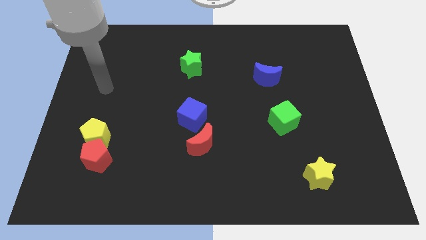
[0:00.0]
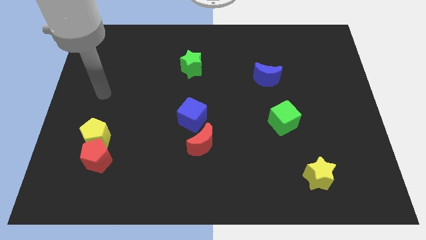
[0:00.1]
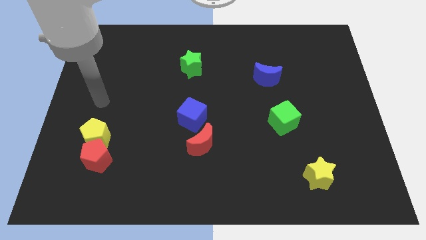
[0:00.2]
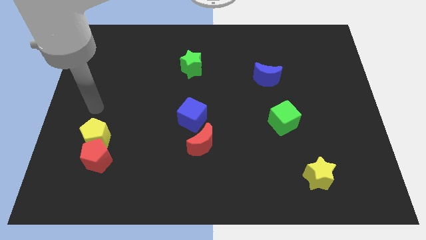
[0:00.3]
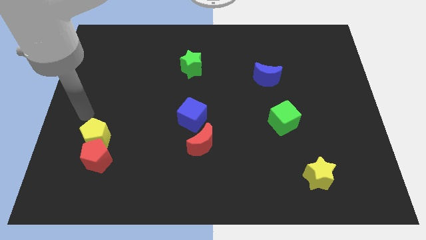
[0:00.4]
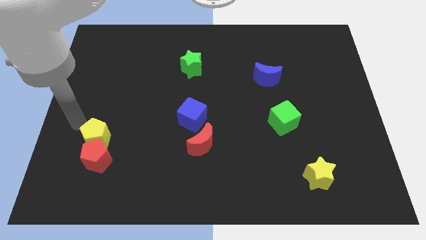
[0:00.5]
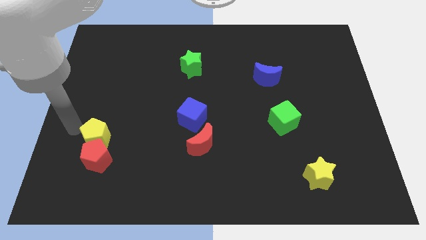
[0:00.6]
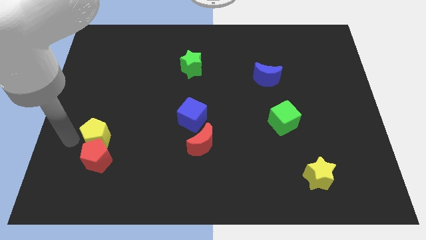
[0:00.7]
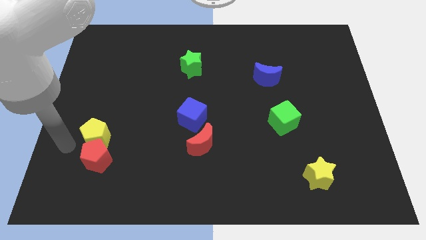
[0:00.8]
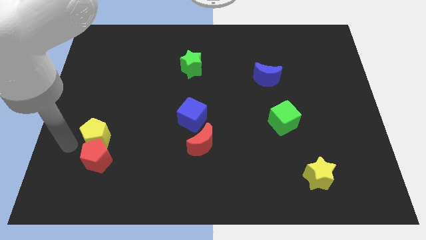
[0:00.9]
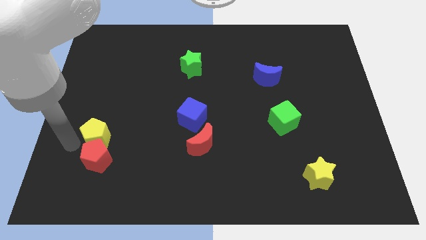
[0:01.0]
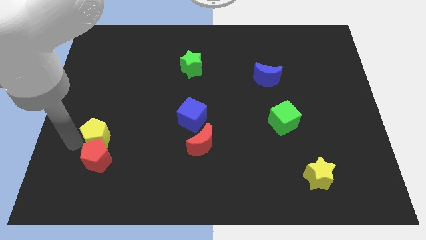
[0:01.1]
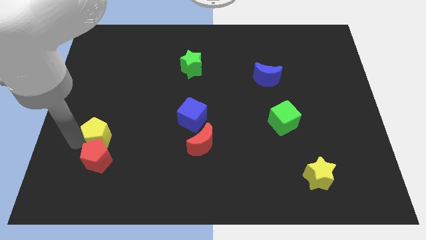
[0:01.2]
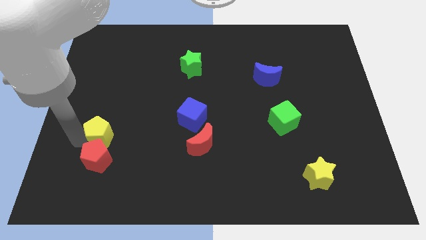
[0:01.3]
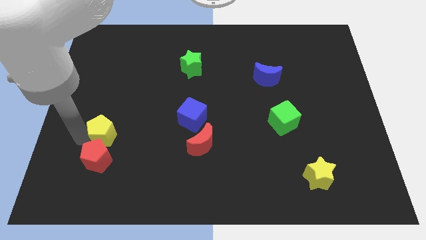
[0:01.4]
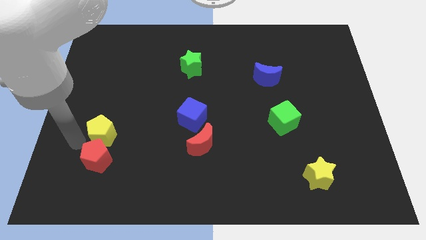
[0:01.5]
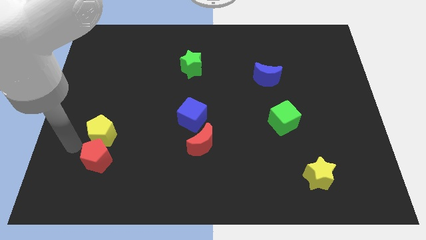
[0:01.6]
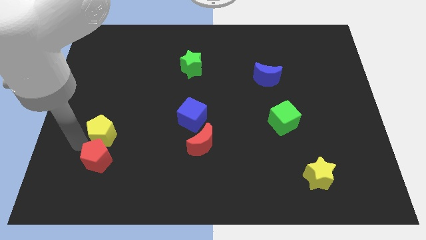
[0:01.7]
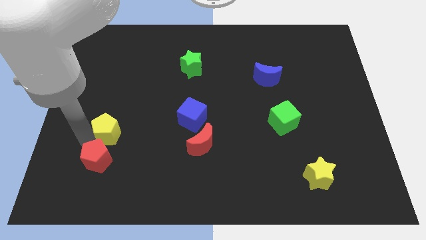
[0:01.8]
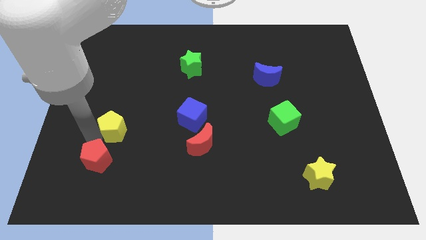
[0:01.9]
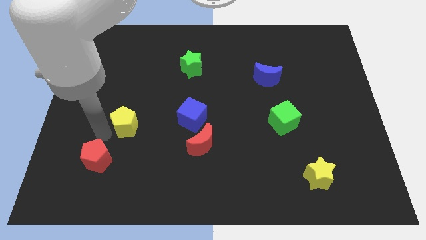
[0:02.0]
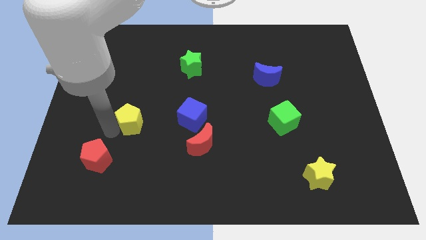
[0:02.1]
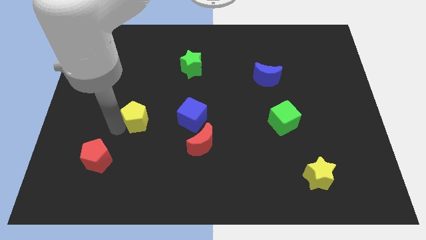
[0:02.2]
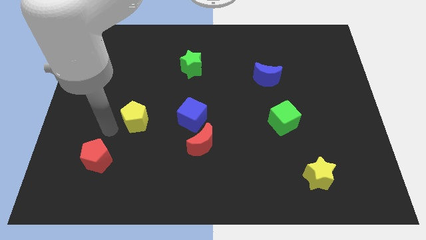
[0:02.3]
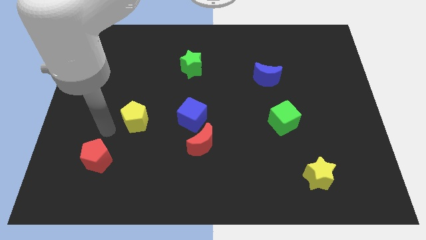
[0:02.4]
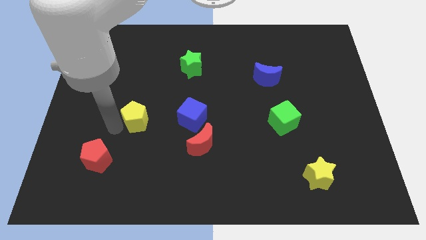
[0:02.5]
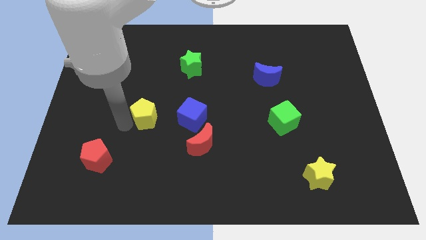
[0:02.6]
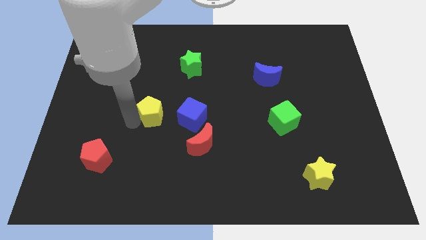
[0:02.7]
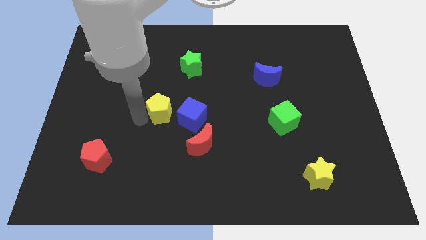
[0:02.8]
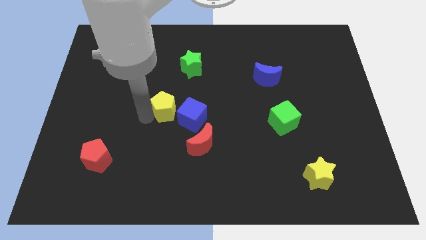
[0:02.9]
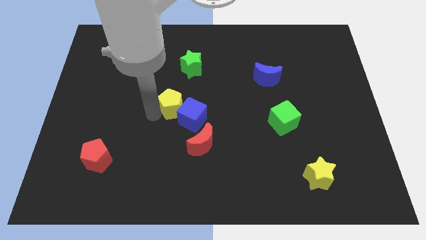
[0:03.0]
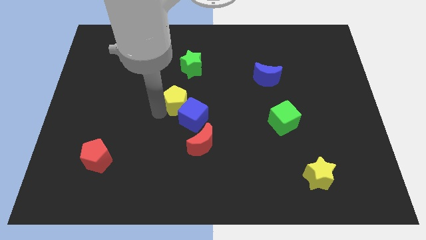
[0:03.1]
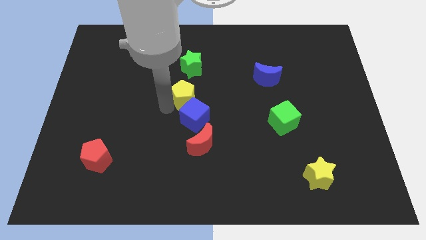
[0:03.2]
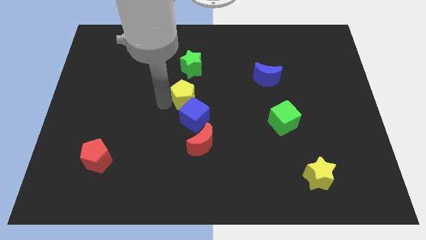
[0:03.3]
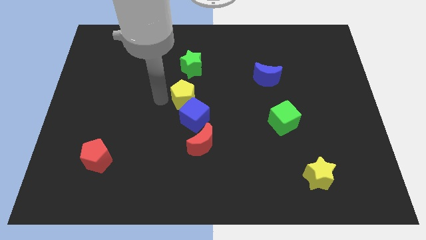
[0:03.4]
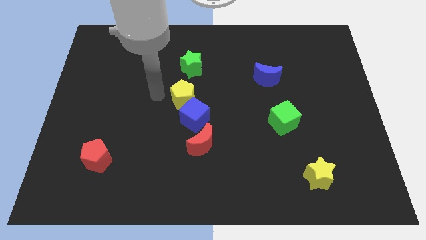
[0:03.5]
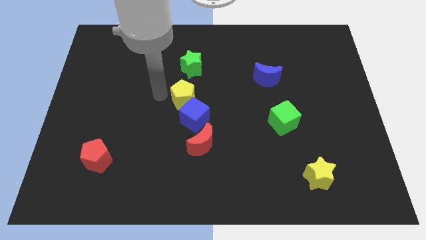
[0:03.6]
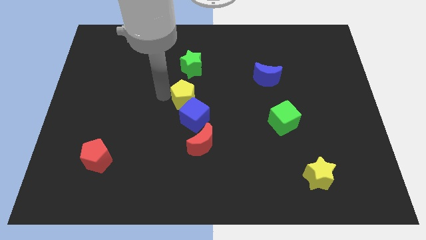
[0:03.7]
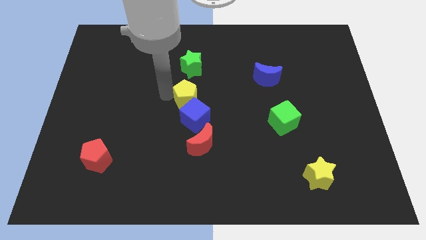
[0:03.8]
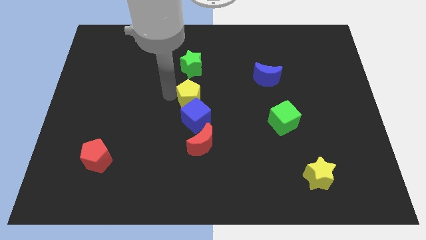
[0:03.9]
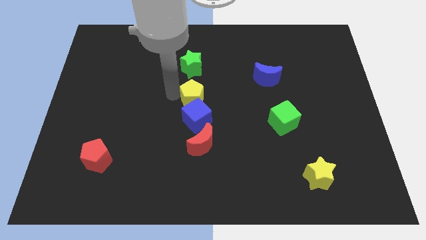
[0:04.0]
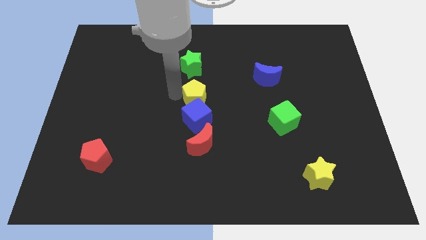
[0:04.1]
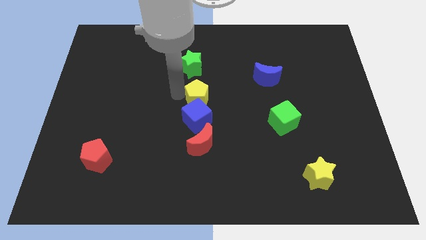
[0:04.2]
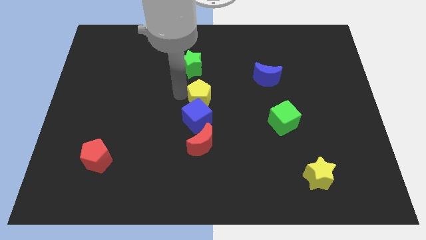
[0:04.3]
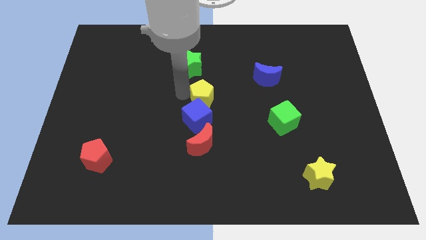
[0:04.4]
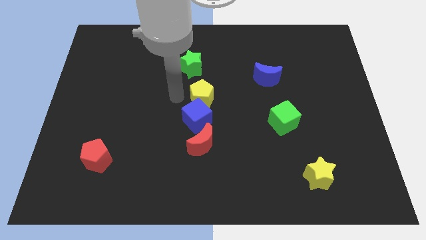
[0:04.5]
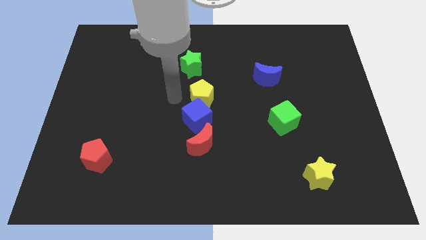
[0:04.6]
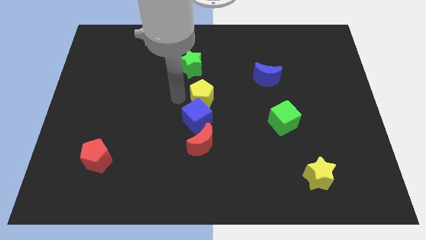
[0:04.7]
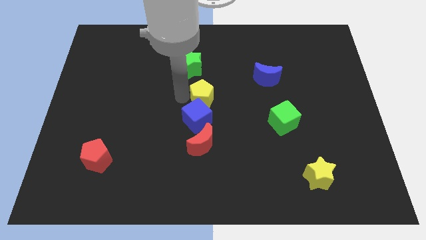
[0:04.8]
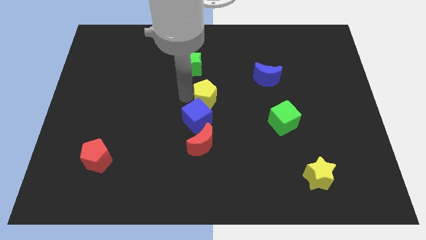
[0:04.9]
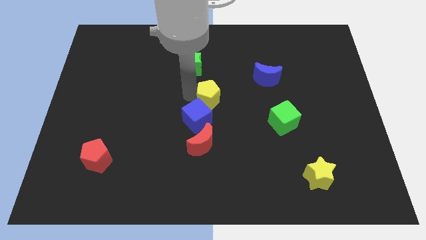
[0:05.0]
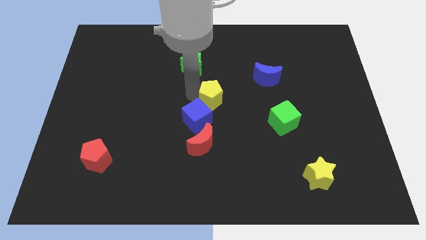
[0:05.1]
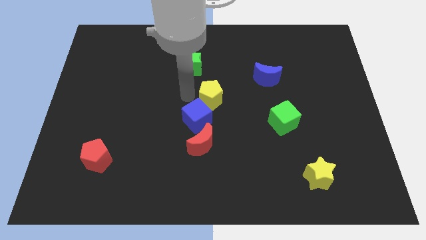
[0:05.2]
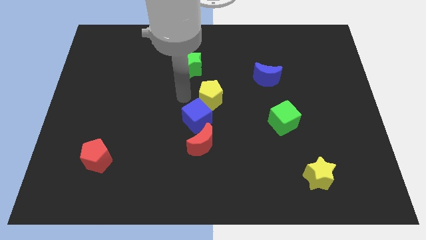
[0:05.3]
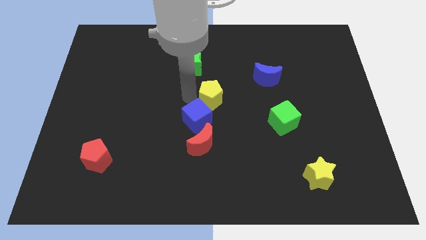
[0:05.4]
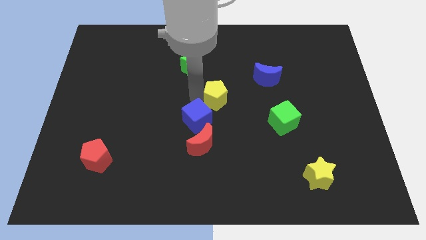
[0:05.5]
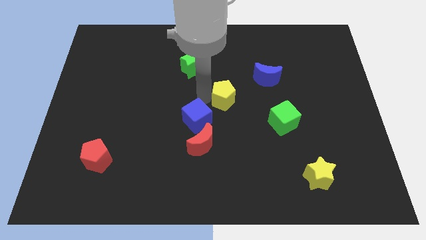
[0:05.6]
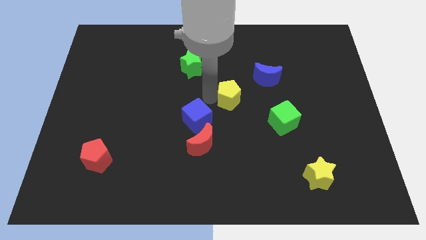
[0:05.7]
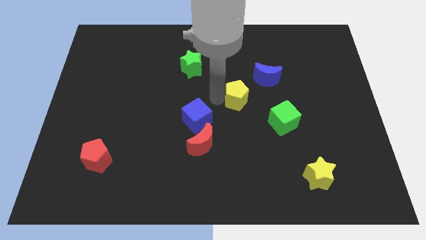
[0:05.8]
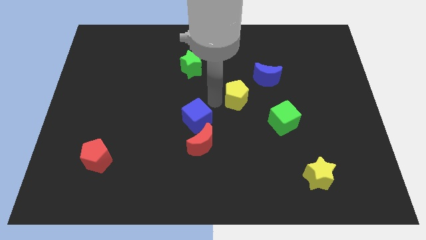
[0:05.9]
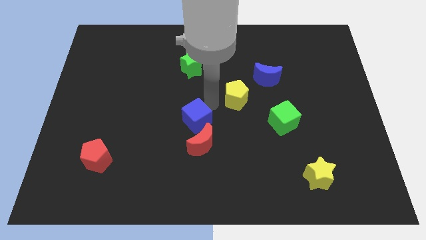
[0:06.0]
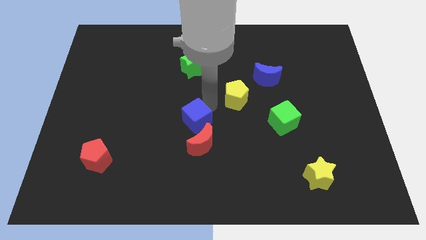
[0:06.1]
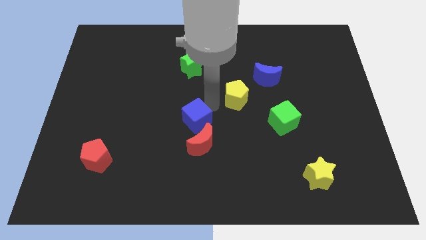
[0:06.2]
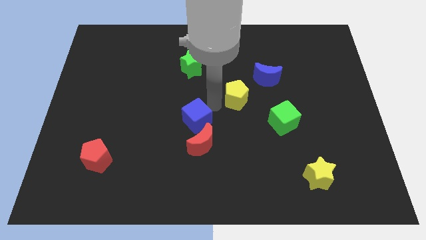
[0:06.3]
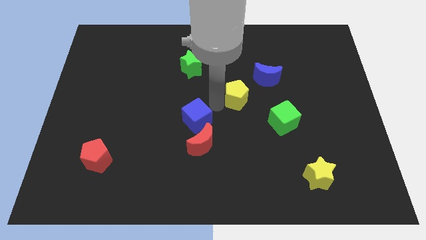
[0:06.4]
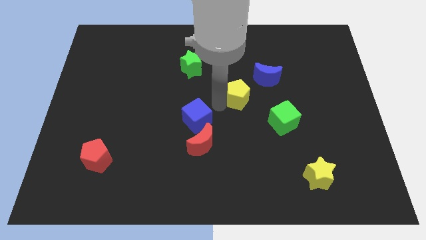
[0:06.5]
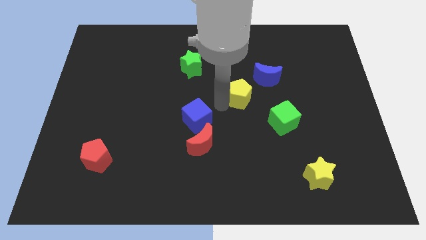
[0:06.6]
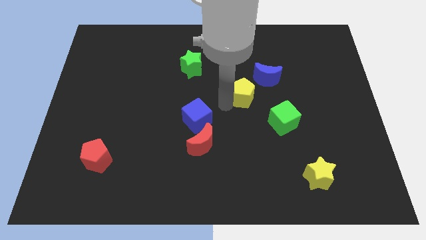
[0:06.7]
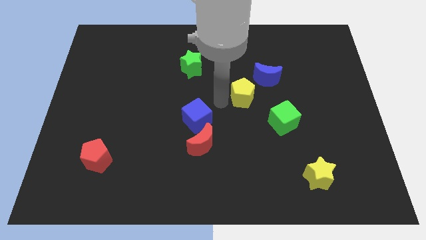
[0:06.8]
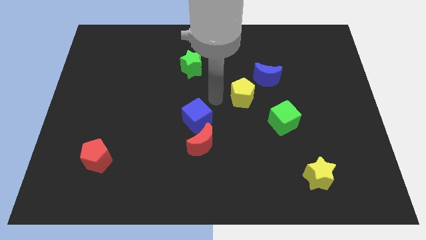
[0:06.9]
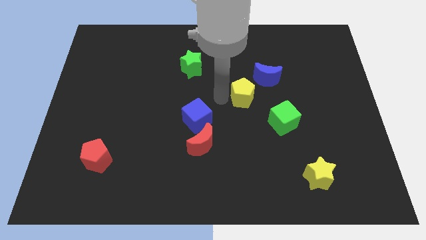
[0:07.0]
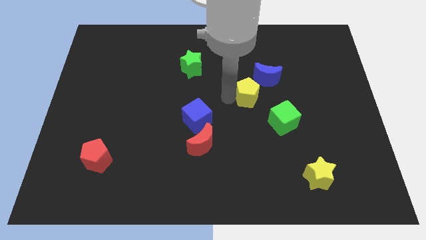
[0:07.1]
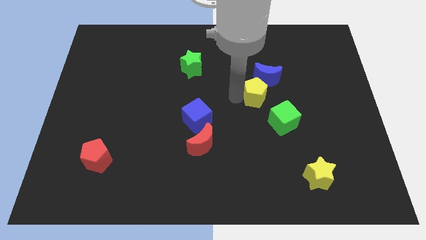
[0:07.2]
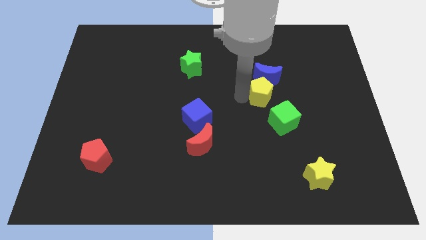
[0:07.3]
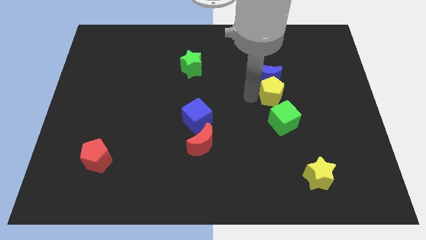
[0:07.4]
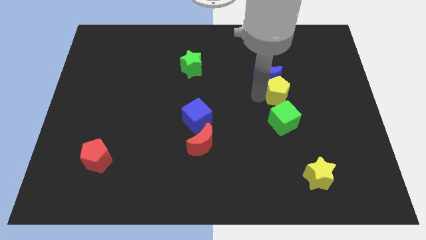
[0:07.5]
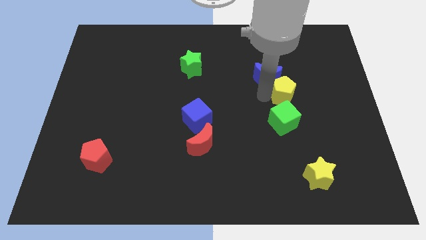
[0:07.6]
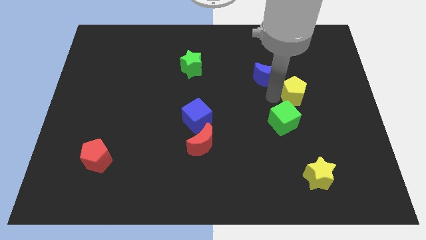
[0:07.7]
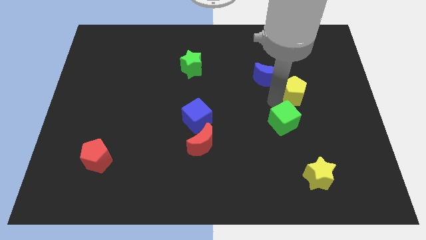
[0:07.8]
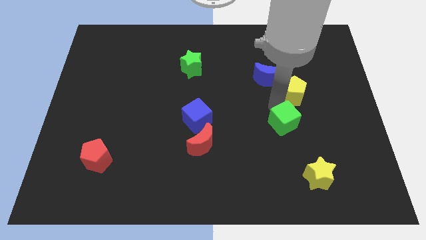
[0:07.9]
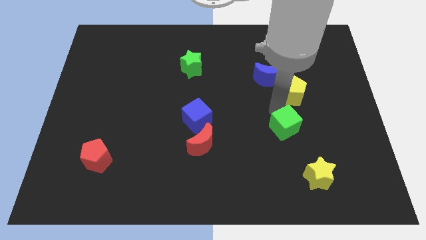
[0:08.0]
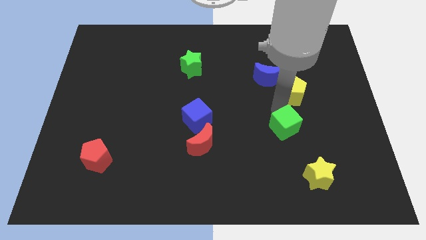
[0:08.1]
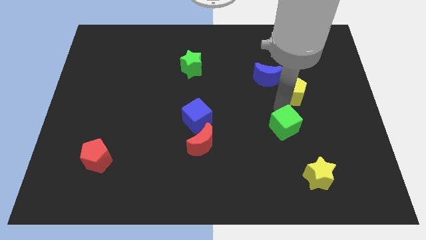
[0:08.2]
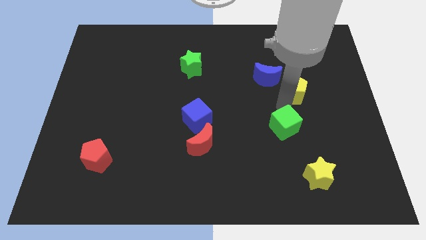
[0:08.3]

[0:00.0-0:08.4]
slide the yellow pentagon right of the blue moon
